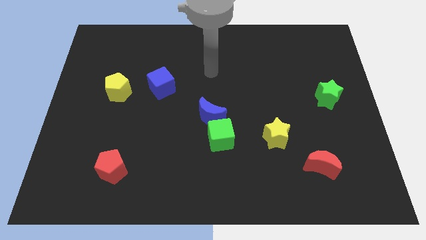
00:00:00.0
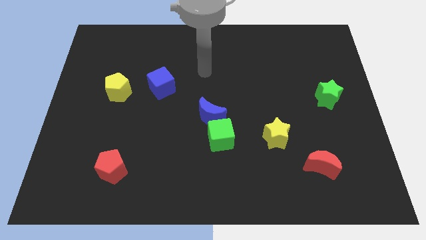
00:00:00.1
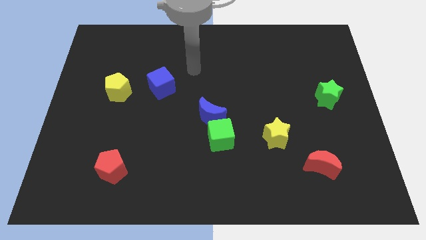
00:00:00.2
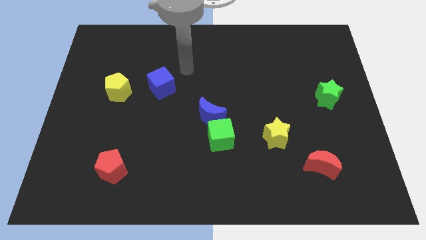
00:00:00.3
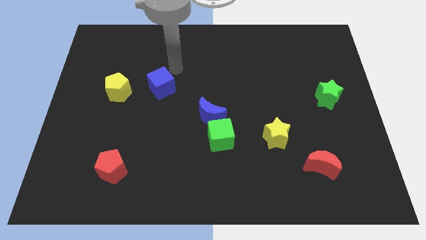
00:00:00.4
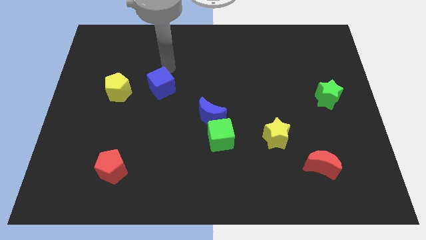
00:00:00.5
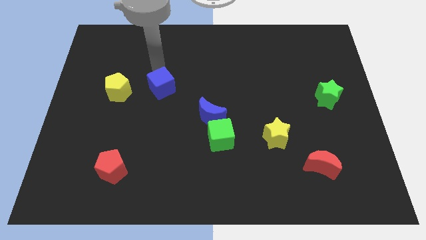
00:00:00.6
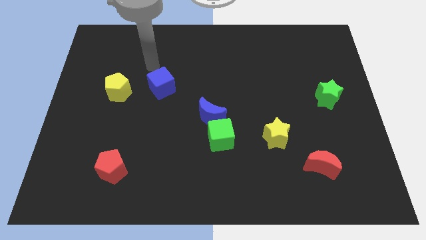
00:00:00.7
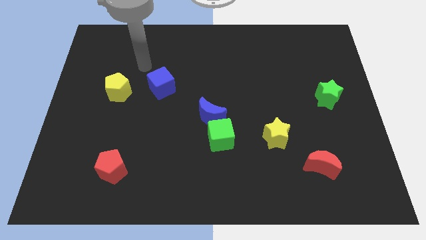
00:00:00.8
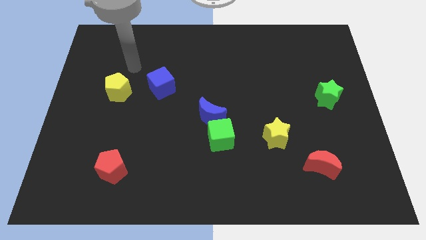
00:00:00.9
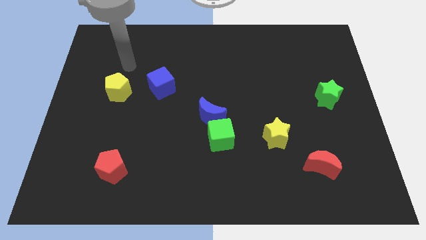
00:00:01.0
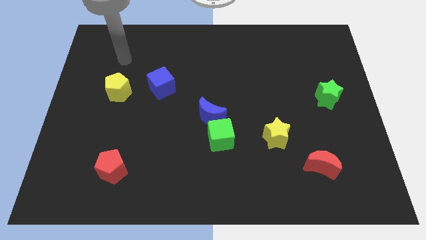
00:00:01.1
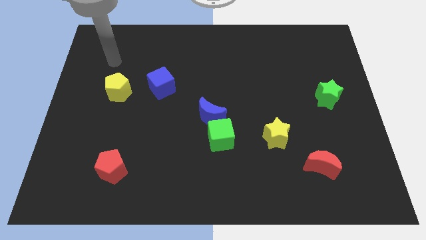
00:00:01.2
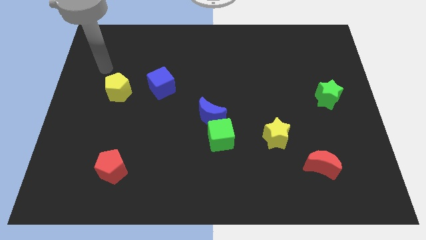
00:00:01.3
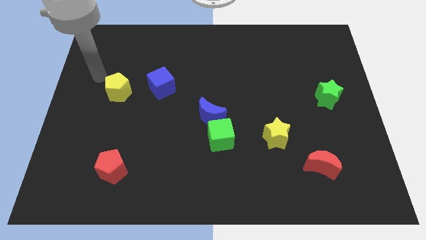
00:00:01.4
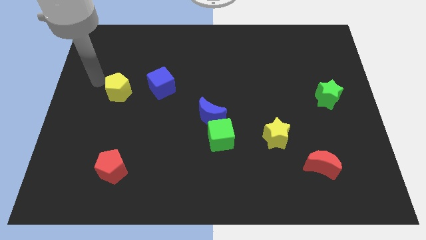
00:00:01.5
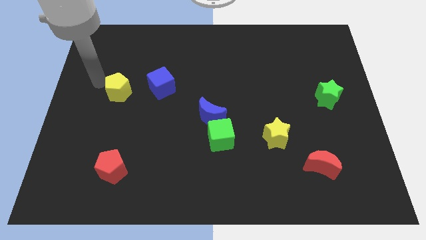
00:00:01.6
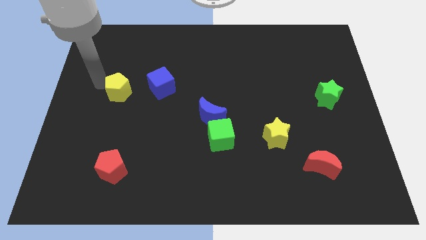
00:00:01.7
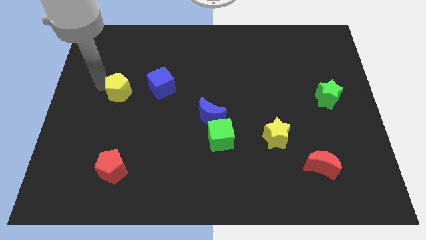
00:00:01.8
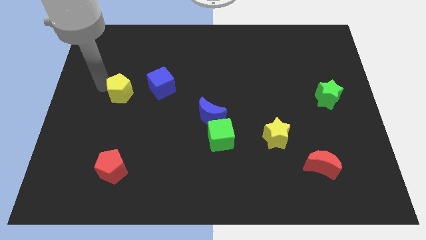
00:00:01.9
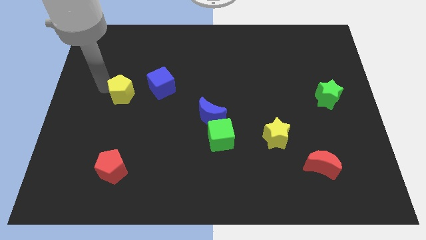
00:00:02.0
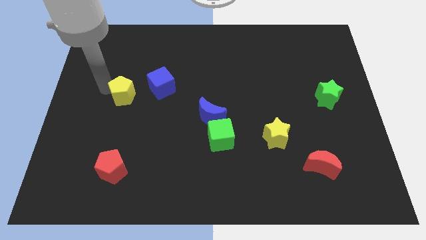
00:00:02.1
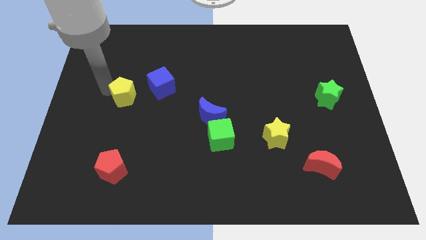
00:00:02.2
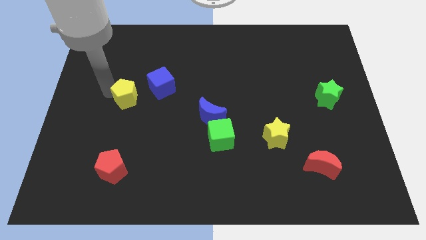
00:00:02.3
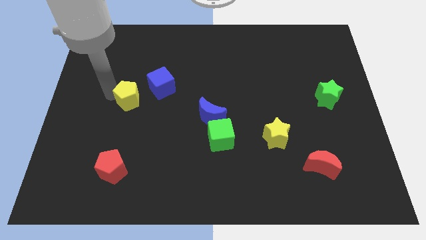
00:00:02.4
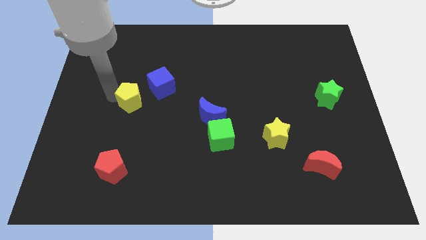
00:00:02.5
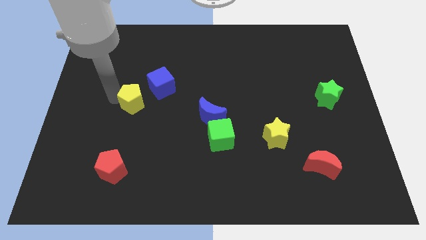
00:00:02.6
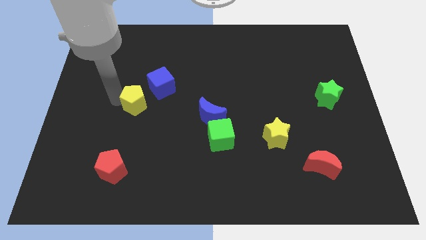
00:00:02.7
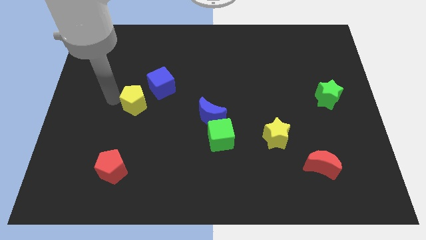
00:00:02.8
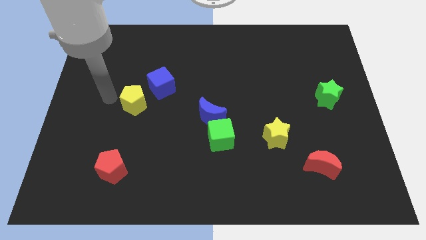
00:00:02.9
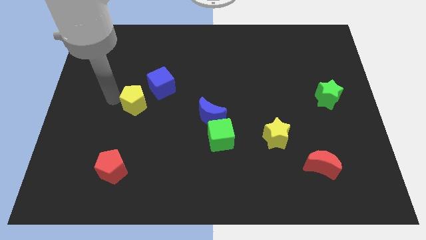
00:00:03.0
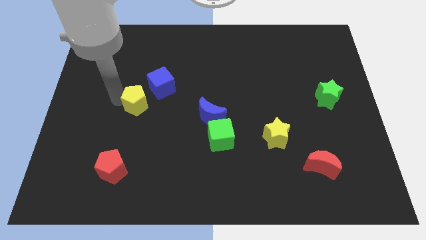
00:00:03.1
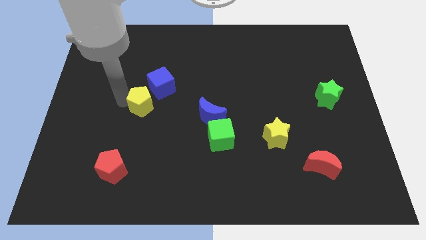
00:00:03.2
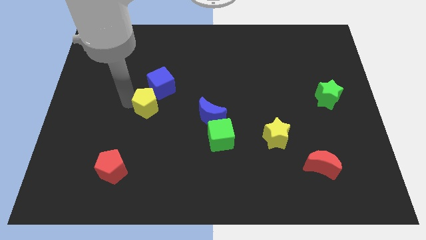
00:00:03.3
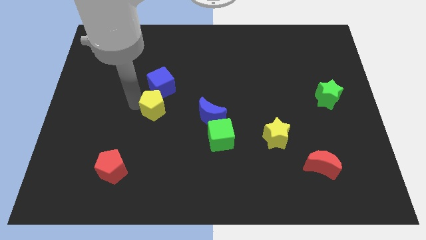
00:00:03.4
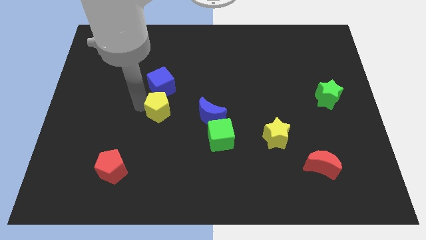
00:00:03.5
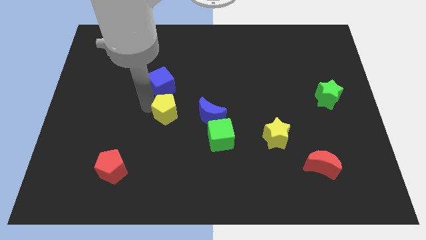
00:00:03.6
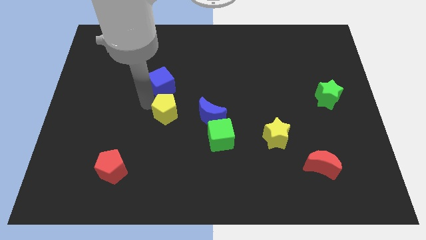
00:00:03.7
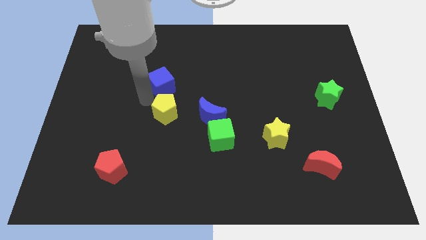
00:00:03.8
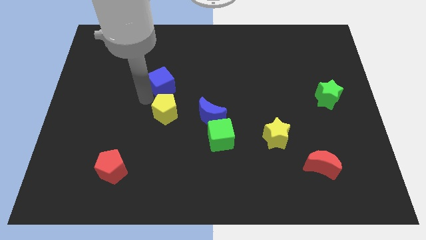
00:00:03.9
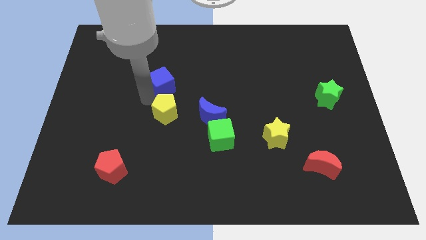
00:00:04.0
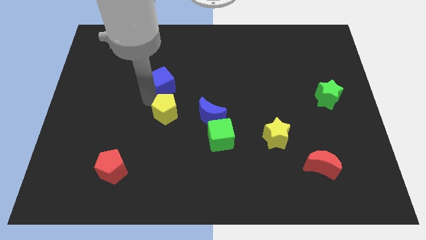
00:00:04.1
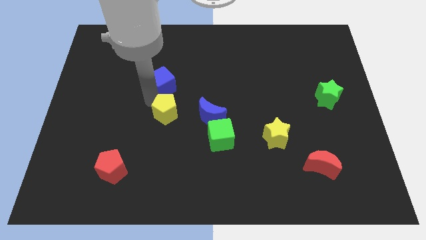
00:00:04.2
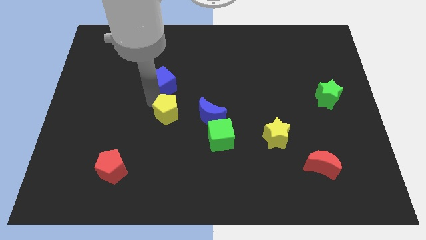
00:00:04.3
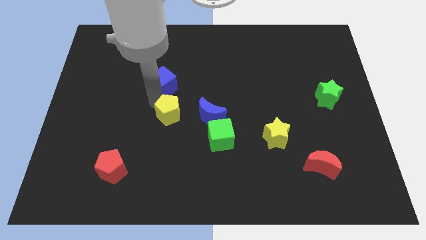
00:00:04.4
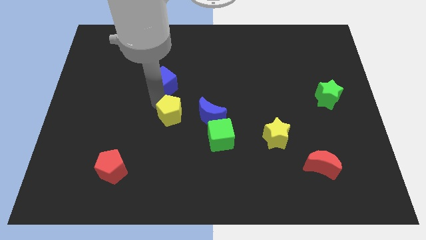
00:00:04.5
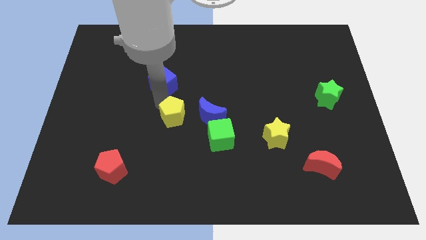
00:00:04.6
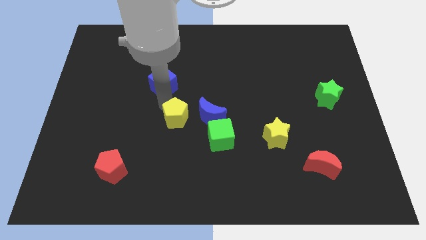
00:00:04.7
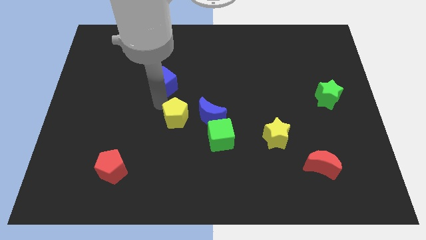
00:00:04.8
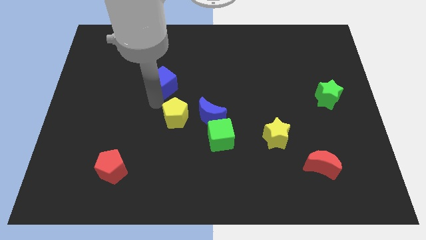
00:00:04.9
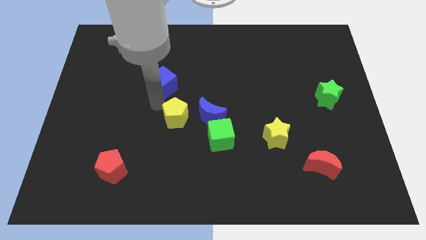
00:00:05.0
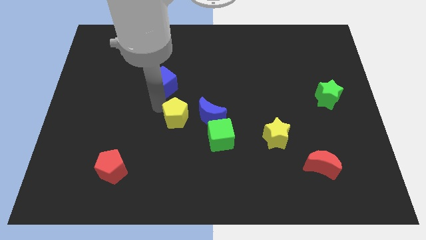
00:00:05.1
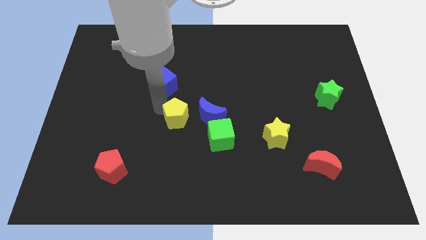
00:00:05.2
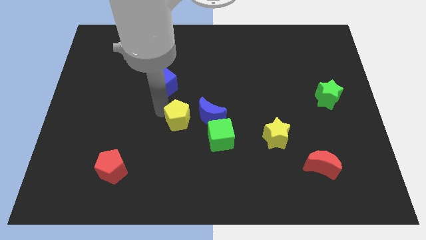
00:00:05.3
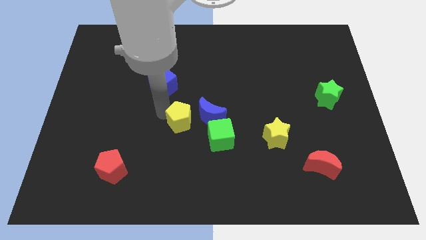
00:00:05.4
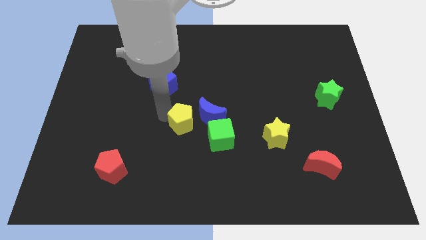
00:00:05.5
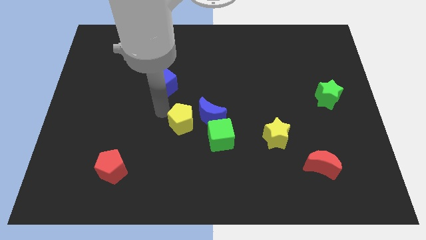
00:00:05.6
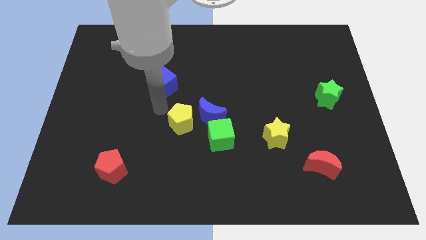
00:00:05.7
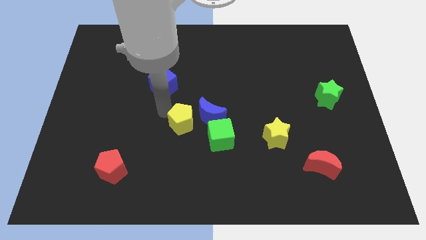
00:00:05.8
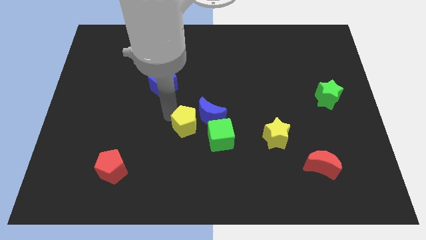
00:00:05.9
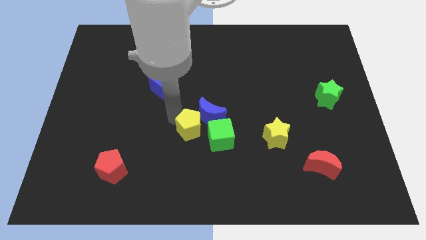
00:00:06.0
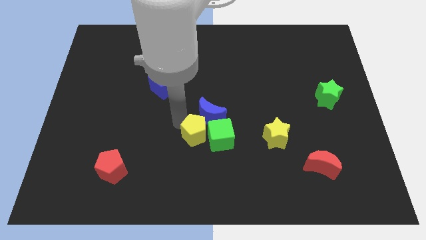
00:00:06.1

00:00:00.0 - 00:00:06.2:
push the yellow pentagon to the green cube

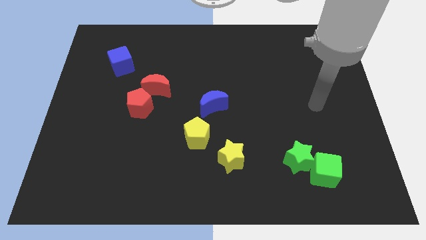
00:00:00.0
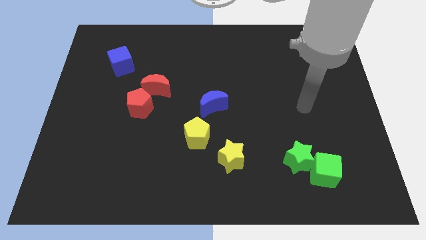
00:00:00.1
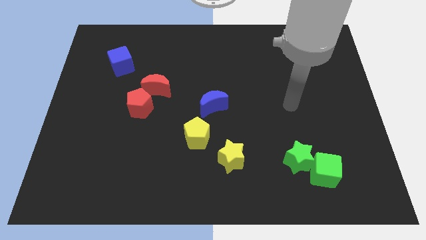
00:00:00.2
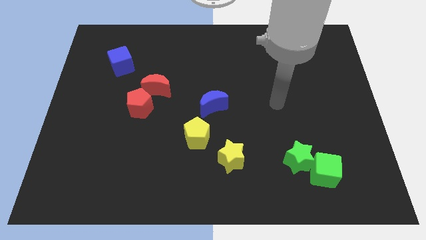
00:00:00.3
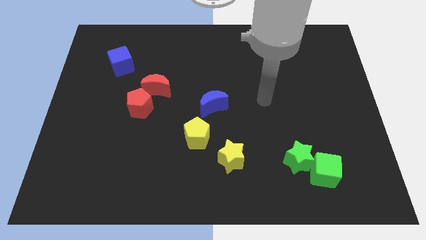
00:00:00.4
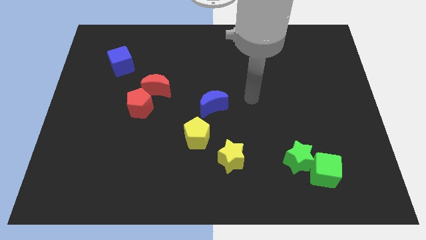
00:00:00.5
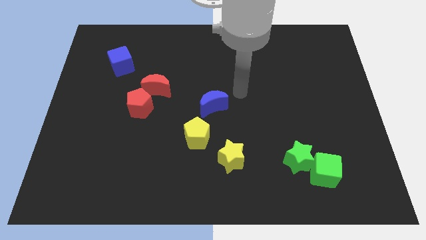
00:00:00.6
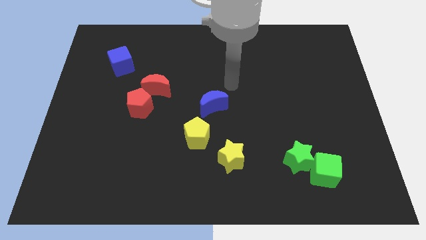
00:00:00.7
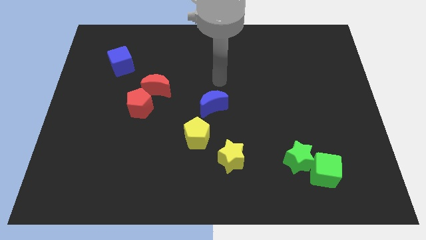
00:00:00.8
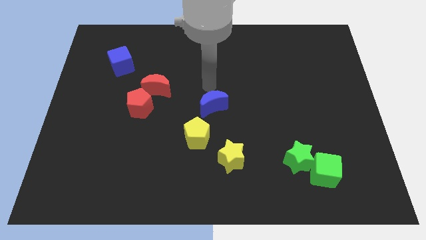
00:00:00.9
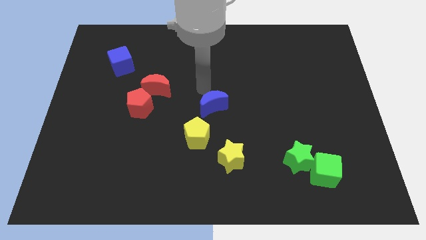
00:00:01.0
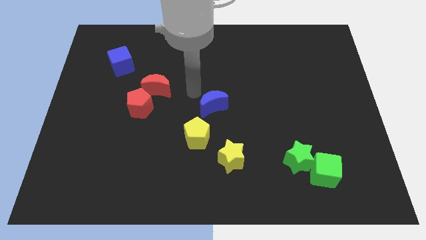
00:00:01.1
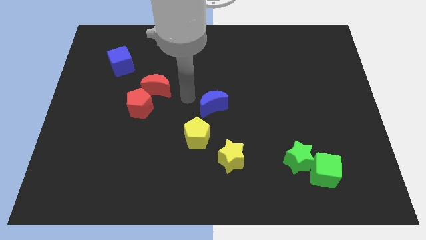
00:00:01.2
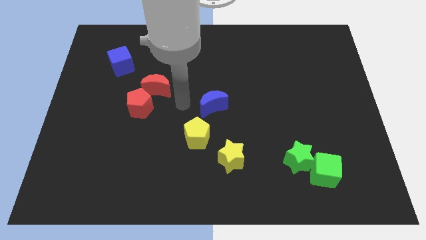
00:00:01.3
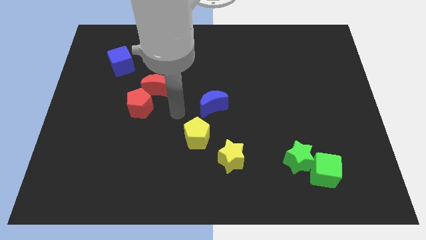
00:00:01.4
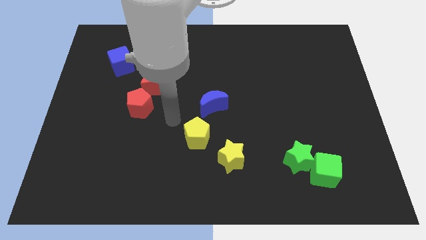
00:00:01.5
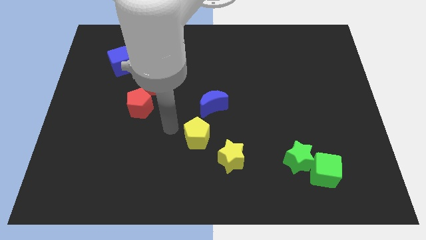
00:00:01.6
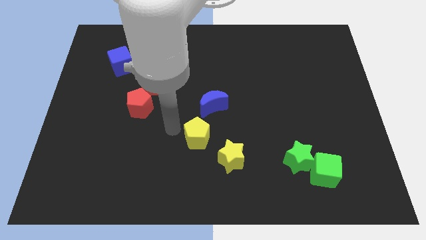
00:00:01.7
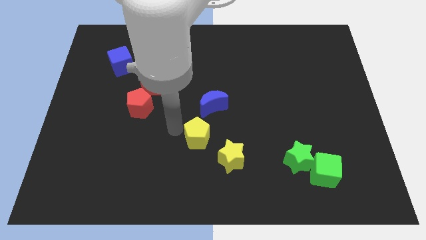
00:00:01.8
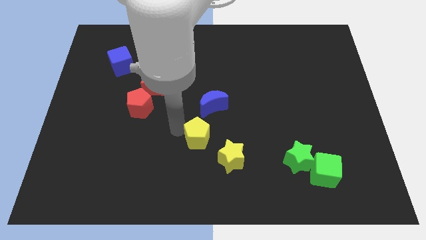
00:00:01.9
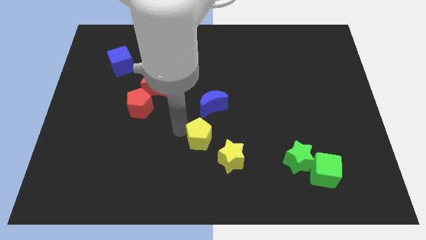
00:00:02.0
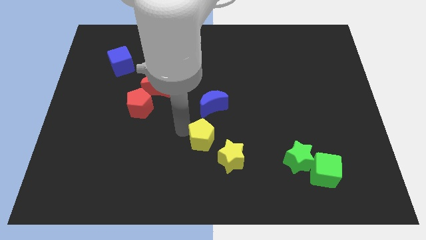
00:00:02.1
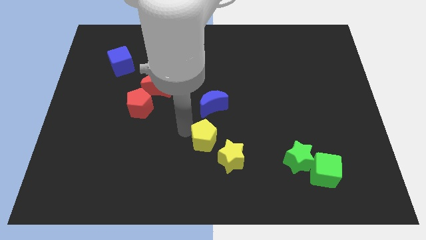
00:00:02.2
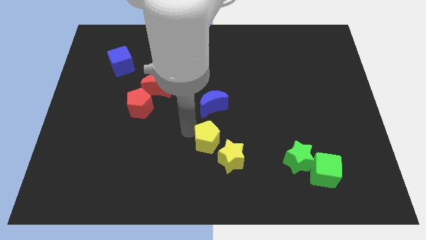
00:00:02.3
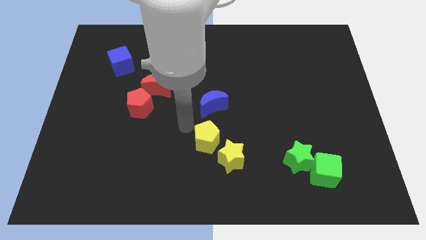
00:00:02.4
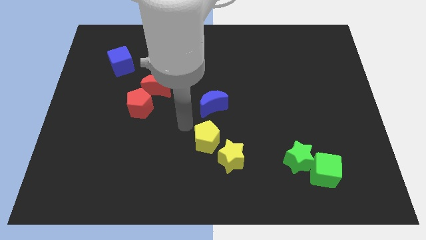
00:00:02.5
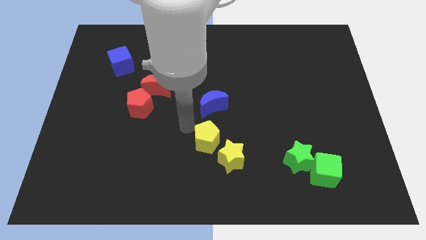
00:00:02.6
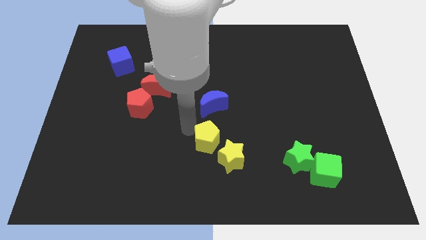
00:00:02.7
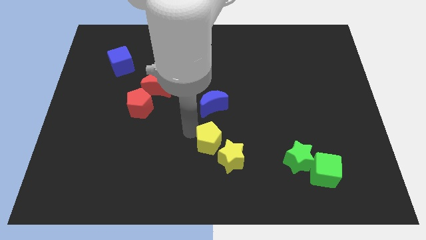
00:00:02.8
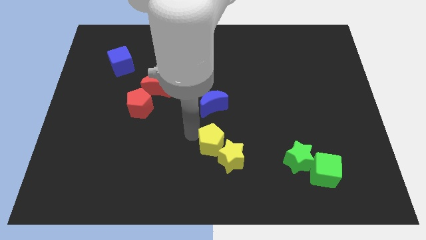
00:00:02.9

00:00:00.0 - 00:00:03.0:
put the yellow pentagon next to the yellow star
